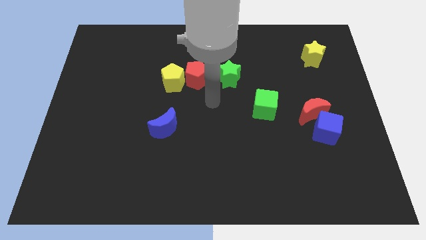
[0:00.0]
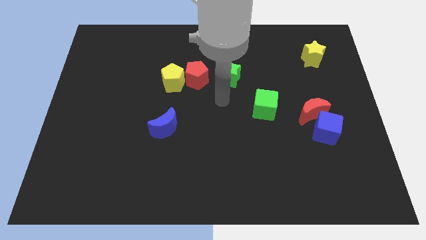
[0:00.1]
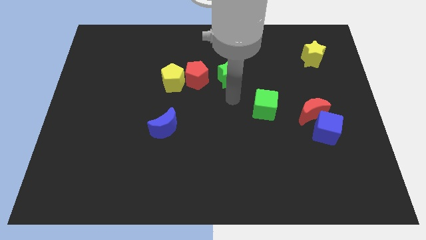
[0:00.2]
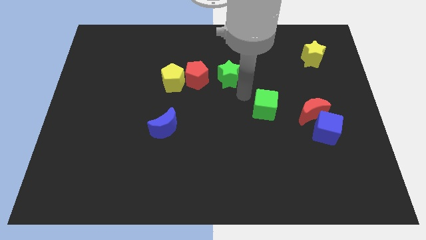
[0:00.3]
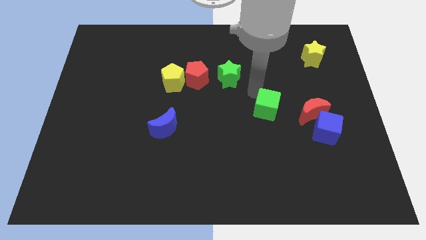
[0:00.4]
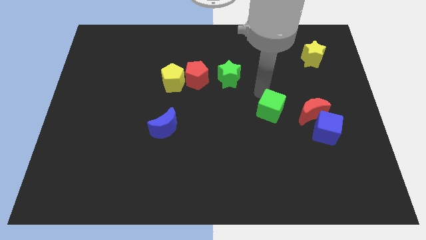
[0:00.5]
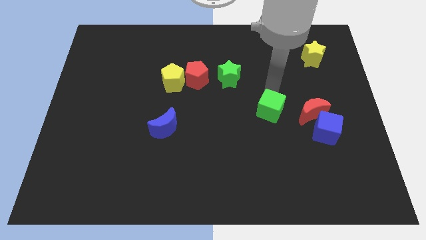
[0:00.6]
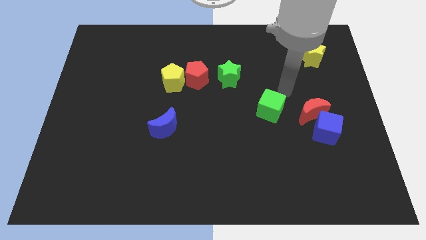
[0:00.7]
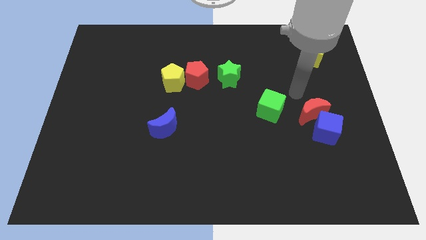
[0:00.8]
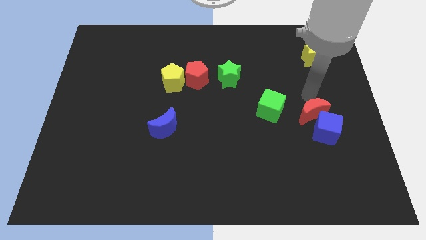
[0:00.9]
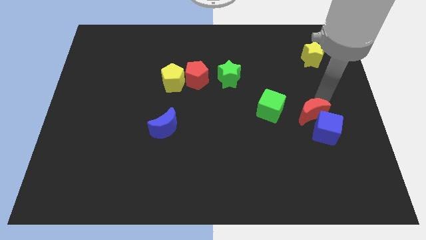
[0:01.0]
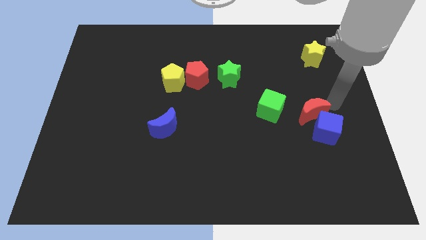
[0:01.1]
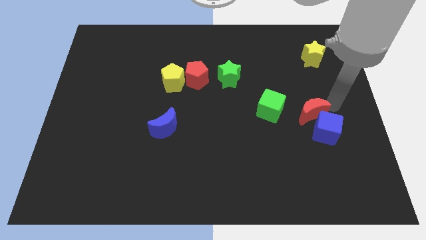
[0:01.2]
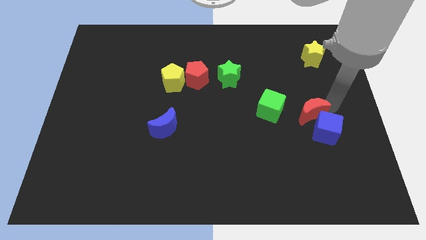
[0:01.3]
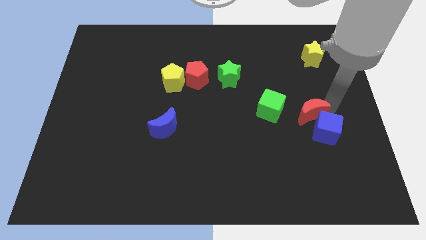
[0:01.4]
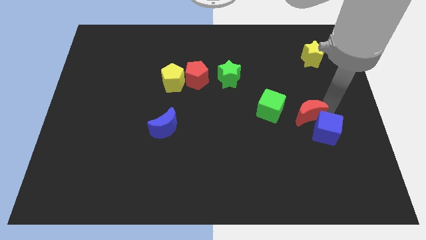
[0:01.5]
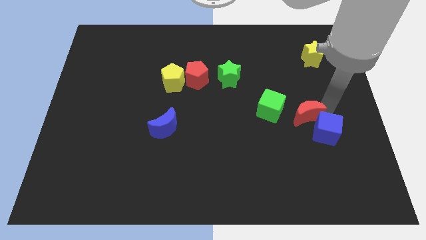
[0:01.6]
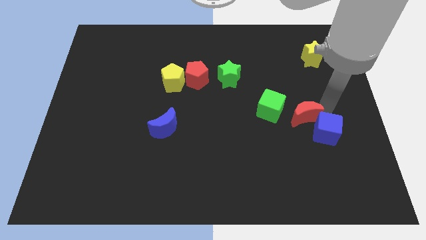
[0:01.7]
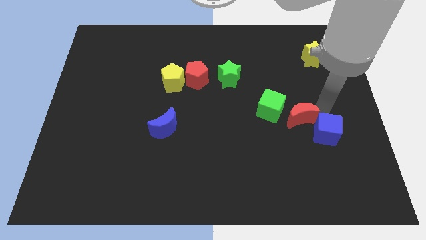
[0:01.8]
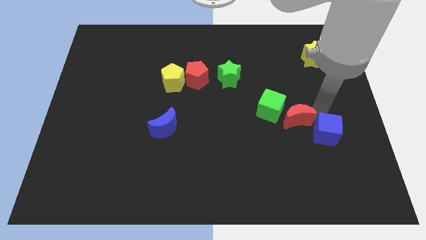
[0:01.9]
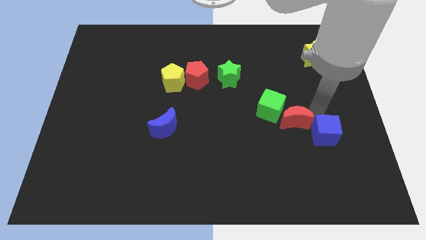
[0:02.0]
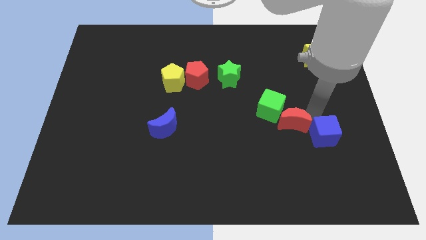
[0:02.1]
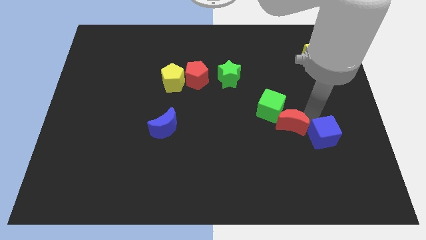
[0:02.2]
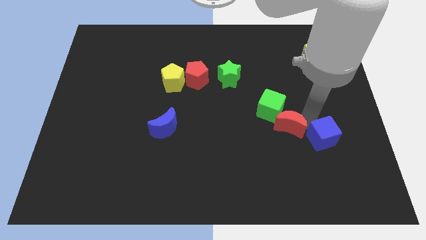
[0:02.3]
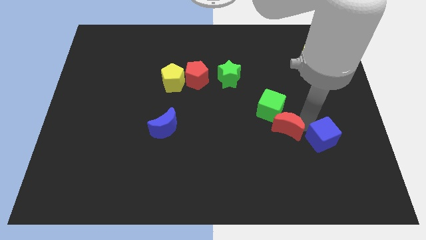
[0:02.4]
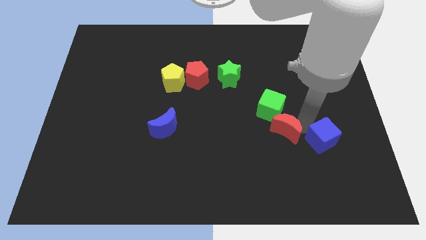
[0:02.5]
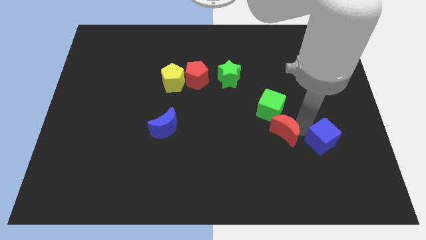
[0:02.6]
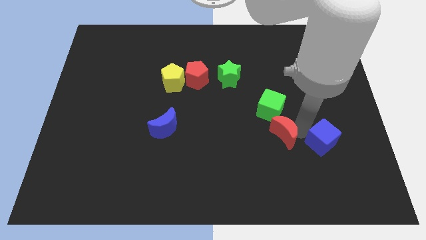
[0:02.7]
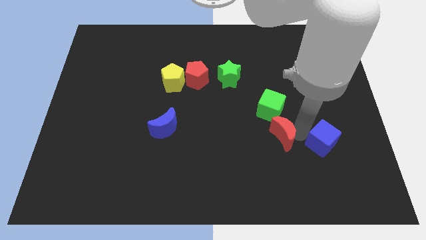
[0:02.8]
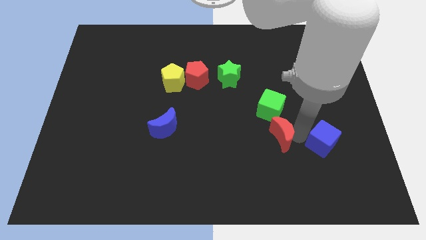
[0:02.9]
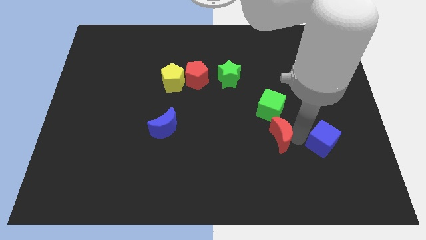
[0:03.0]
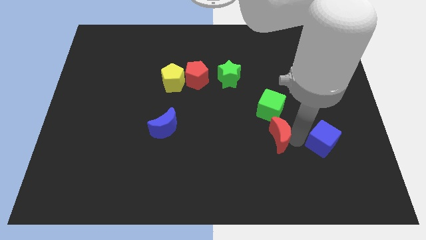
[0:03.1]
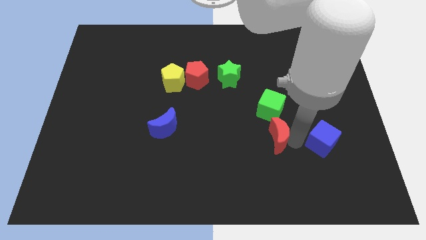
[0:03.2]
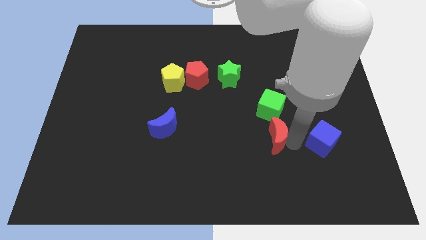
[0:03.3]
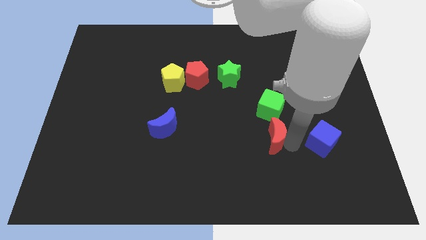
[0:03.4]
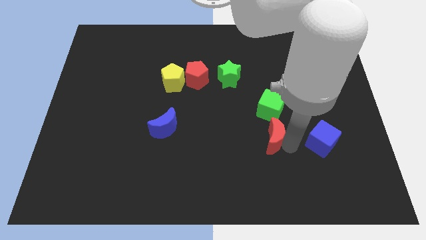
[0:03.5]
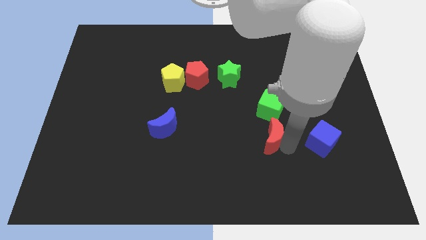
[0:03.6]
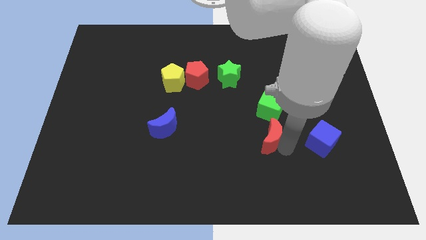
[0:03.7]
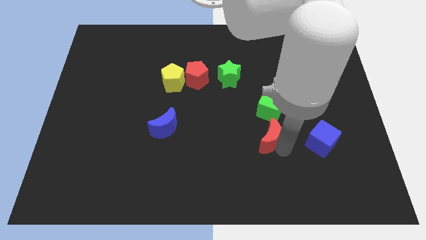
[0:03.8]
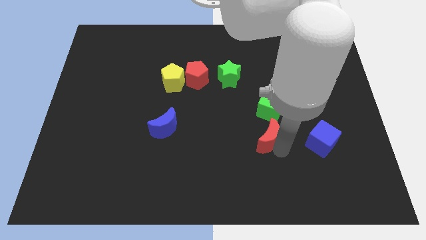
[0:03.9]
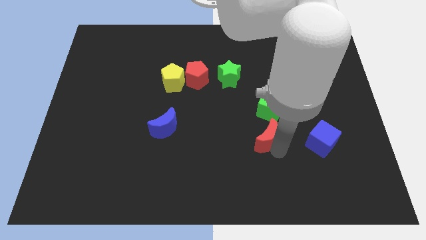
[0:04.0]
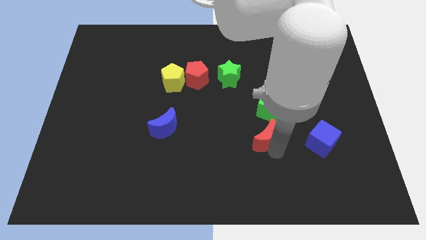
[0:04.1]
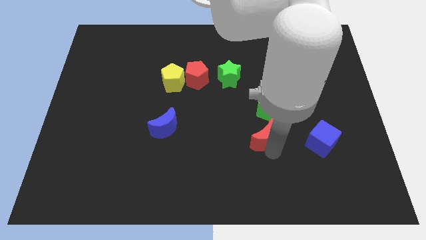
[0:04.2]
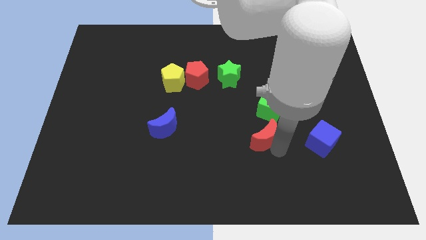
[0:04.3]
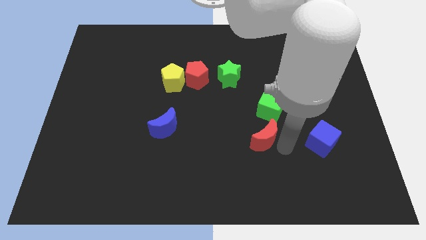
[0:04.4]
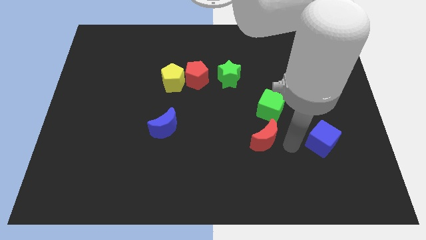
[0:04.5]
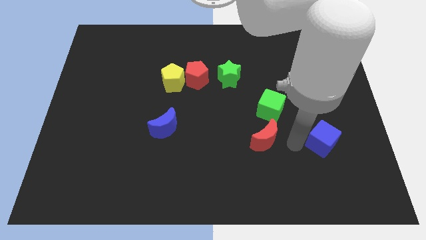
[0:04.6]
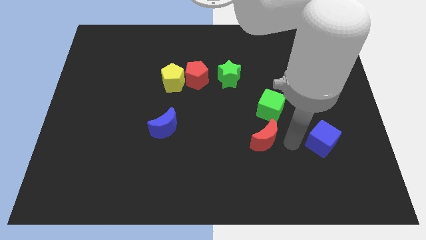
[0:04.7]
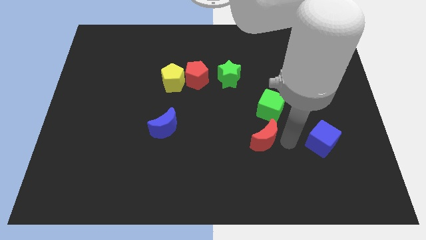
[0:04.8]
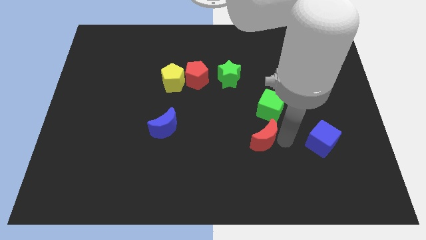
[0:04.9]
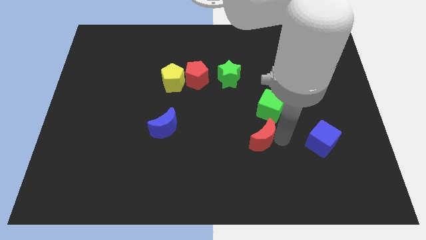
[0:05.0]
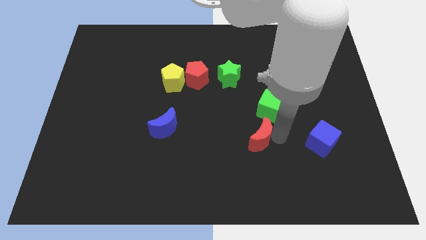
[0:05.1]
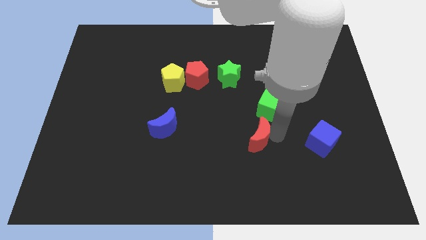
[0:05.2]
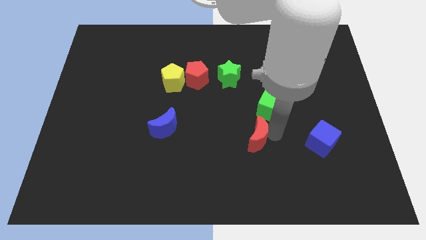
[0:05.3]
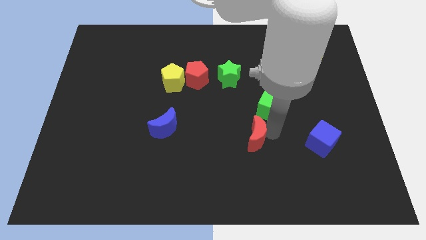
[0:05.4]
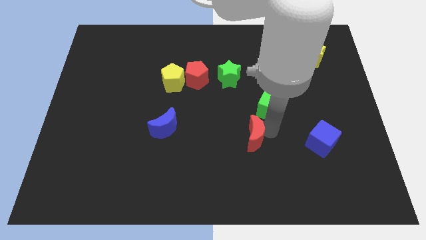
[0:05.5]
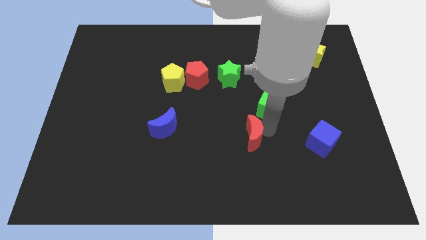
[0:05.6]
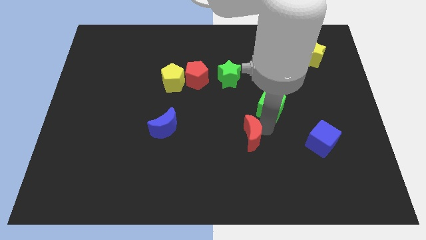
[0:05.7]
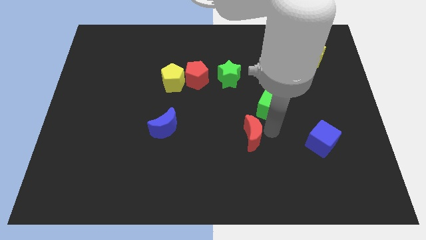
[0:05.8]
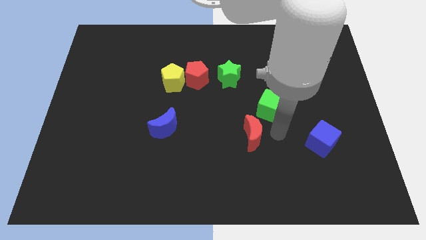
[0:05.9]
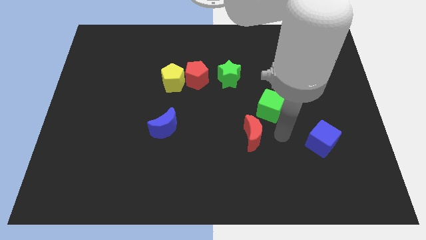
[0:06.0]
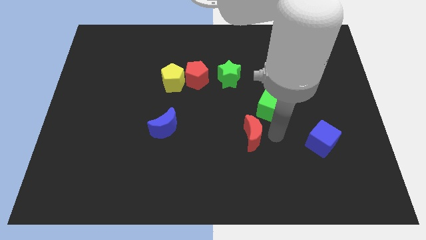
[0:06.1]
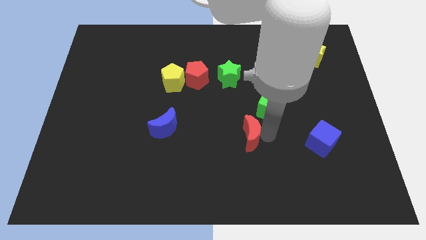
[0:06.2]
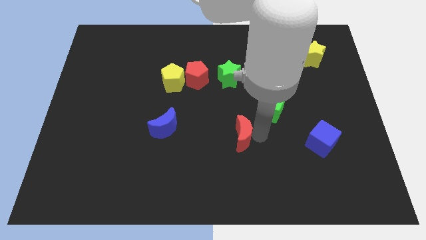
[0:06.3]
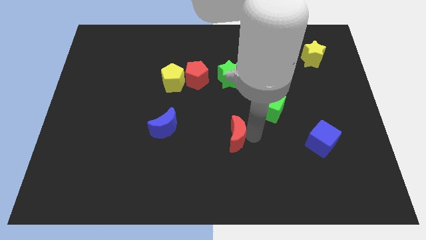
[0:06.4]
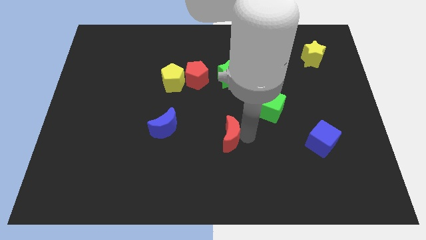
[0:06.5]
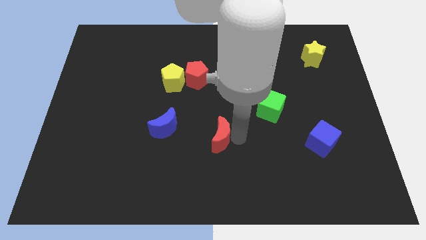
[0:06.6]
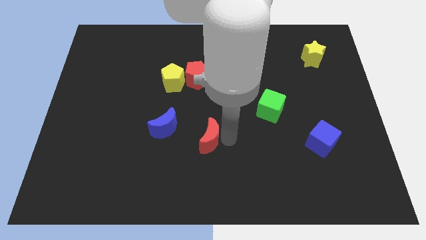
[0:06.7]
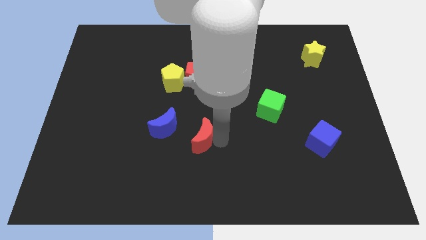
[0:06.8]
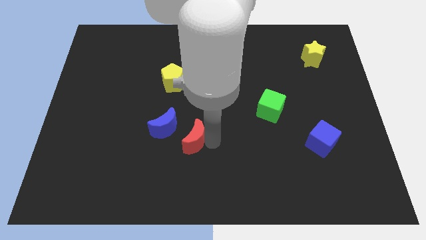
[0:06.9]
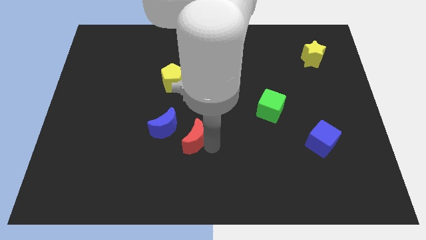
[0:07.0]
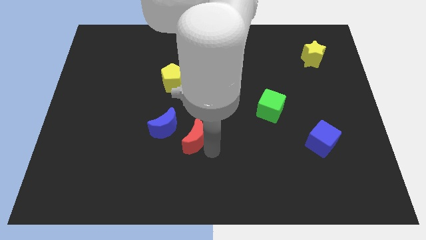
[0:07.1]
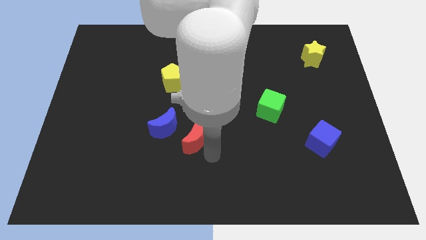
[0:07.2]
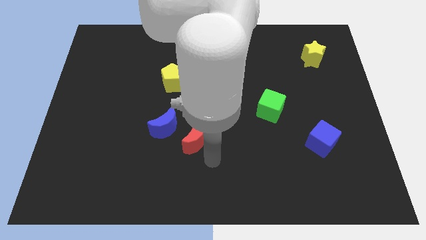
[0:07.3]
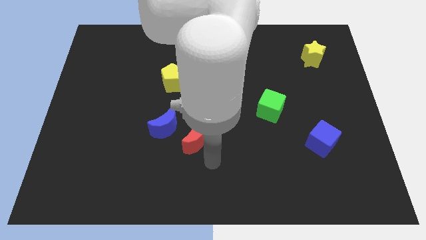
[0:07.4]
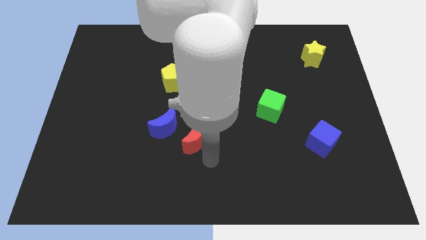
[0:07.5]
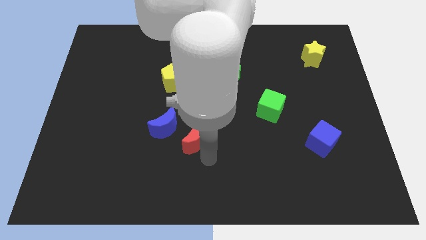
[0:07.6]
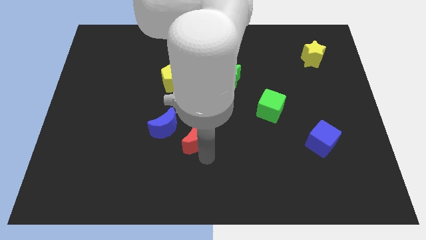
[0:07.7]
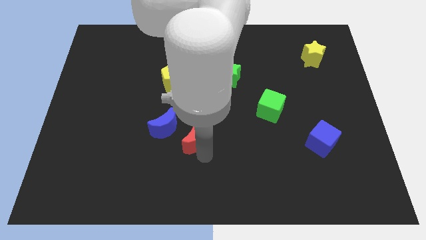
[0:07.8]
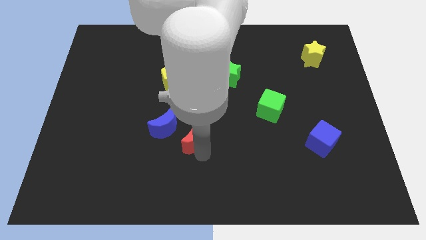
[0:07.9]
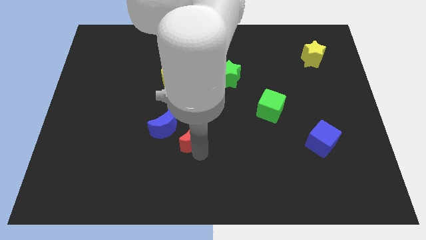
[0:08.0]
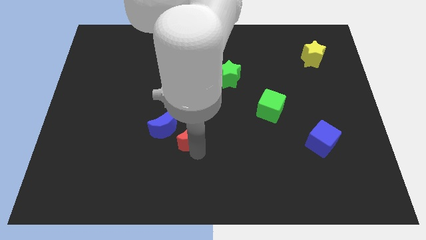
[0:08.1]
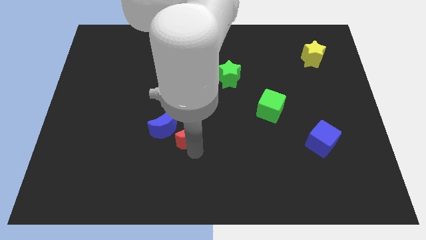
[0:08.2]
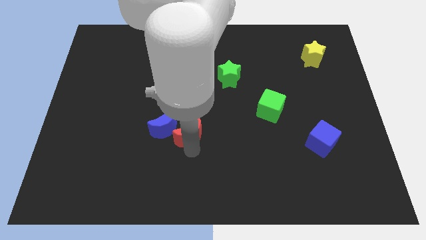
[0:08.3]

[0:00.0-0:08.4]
push the red moon next to the blue moon
